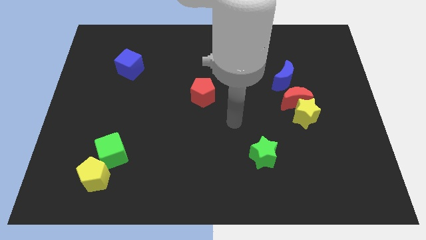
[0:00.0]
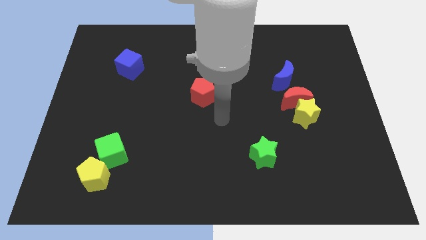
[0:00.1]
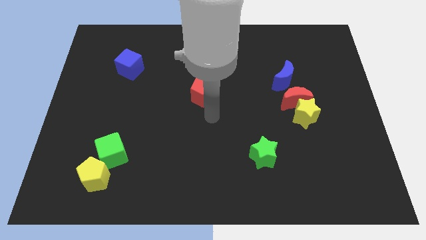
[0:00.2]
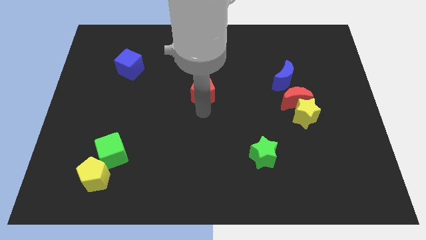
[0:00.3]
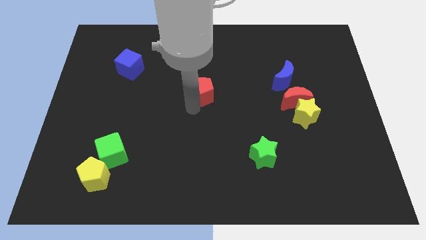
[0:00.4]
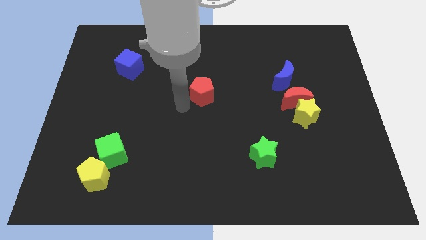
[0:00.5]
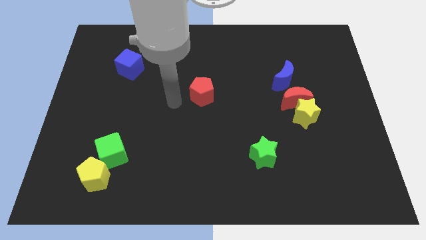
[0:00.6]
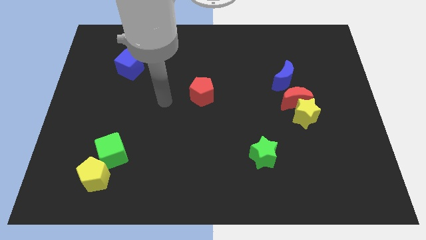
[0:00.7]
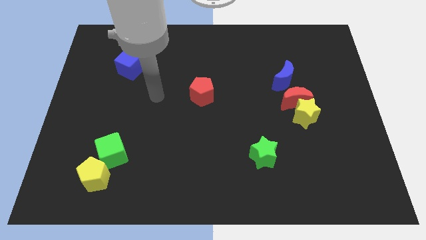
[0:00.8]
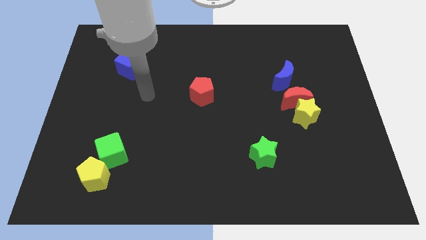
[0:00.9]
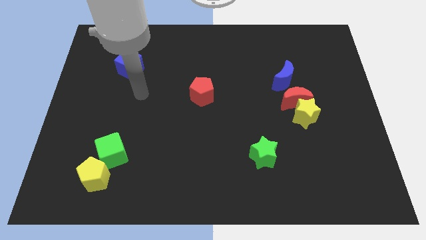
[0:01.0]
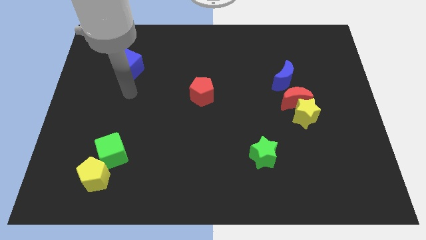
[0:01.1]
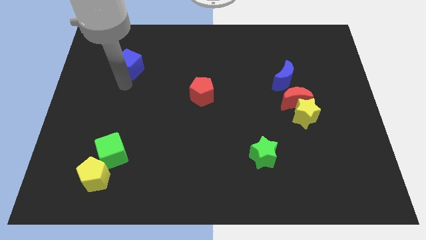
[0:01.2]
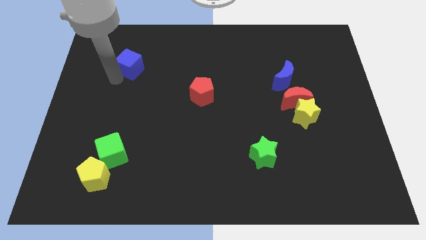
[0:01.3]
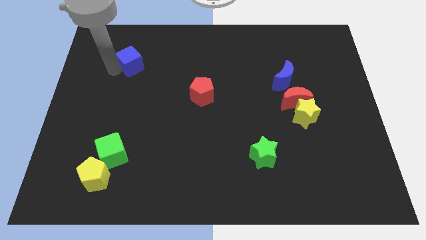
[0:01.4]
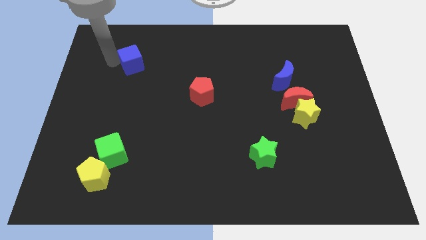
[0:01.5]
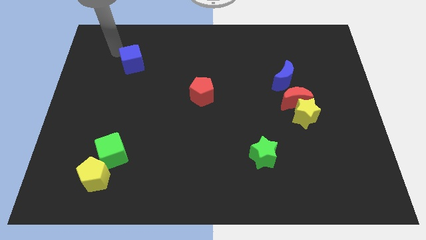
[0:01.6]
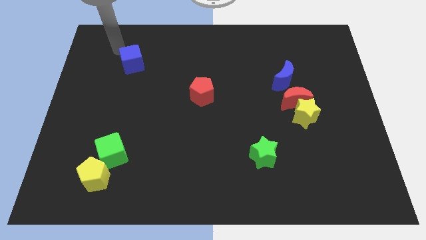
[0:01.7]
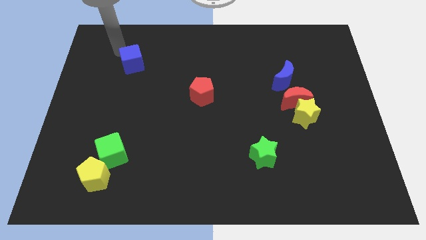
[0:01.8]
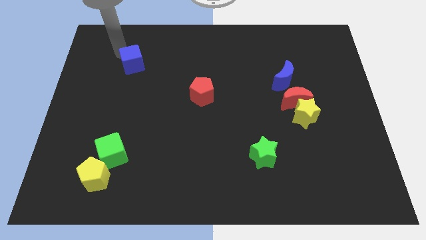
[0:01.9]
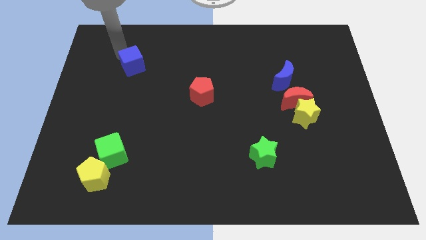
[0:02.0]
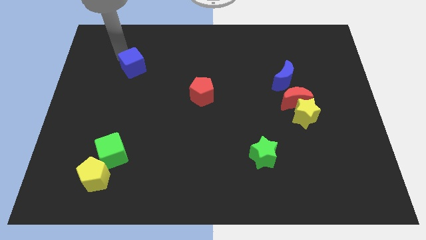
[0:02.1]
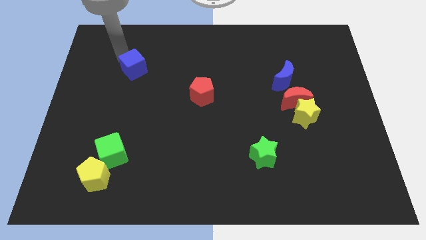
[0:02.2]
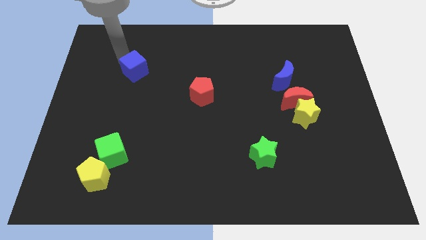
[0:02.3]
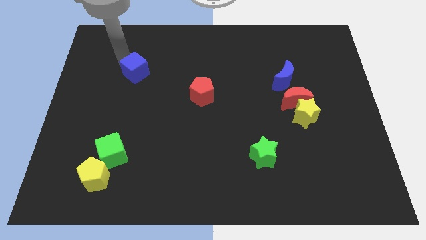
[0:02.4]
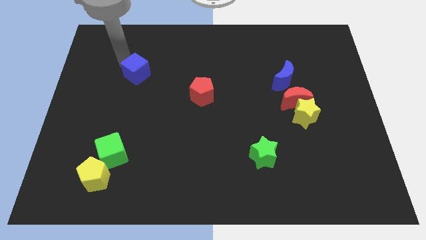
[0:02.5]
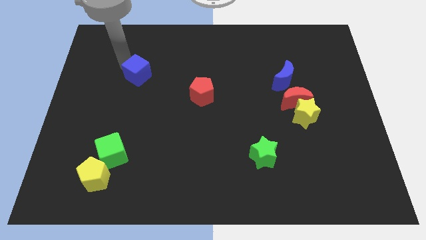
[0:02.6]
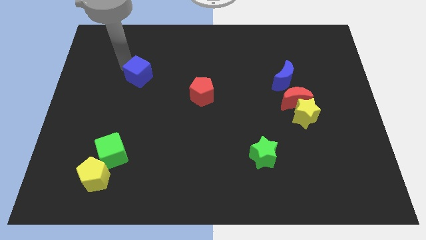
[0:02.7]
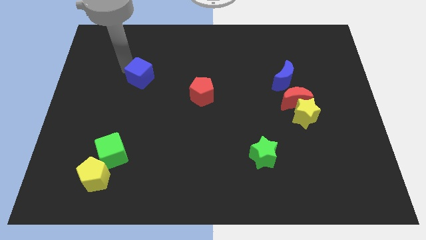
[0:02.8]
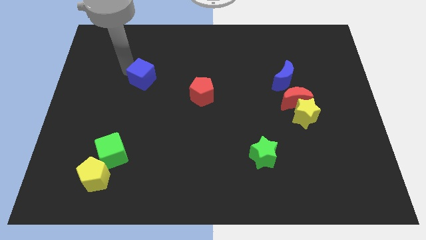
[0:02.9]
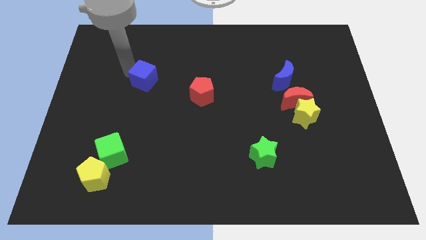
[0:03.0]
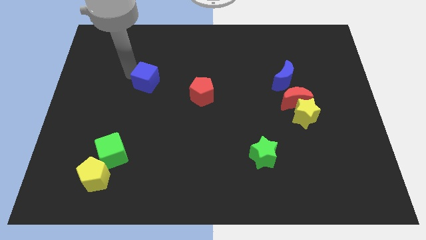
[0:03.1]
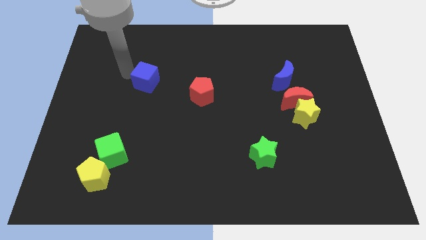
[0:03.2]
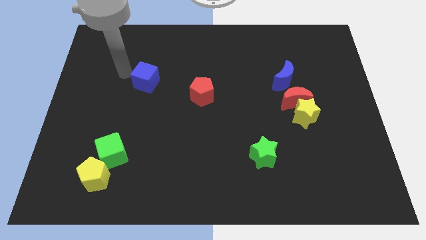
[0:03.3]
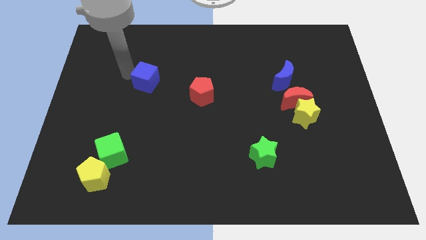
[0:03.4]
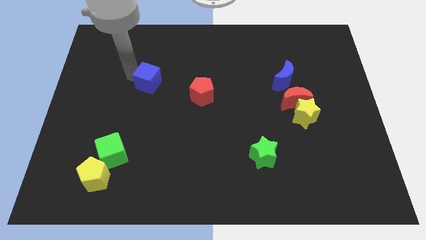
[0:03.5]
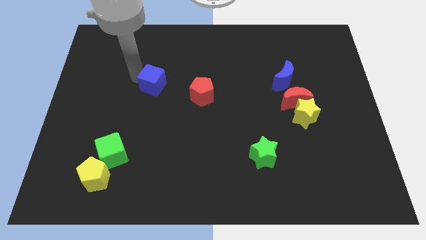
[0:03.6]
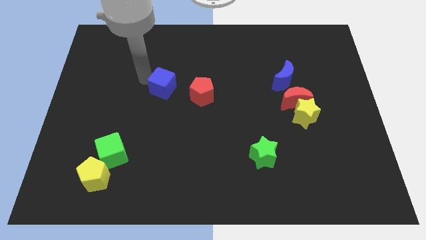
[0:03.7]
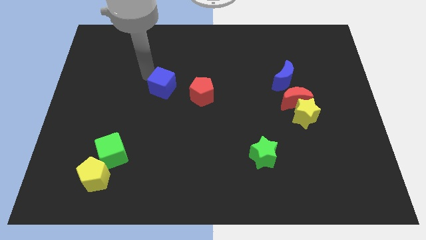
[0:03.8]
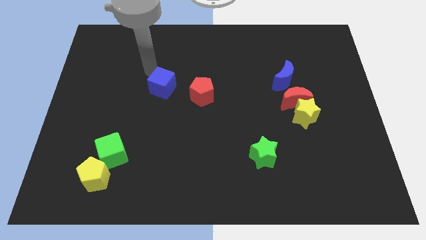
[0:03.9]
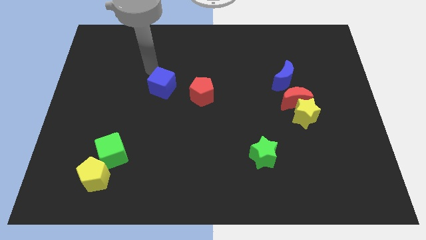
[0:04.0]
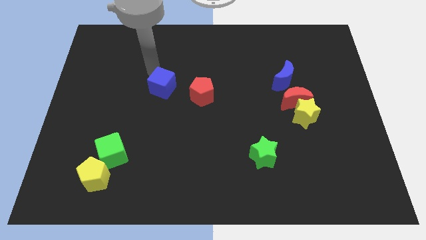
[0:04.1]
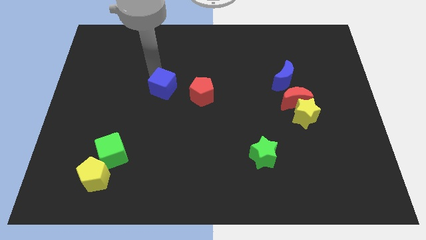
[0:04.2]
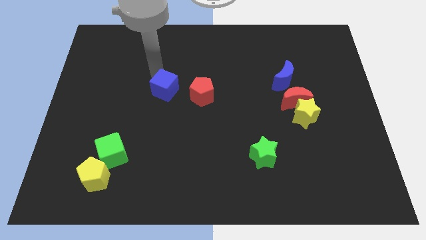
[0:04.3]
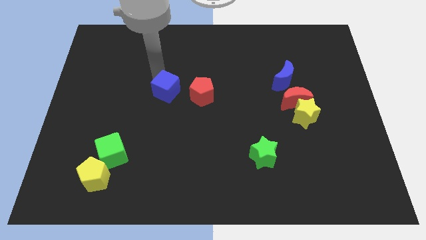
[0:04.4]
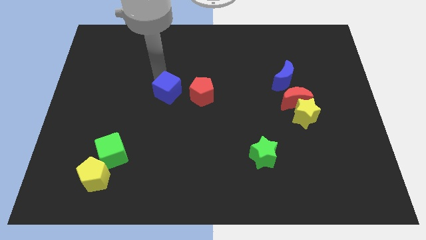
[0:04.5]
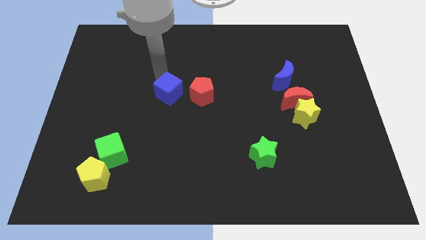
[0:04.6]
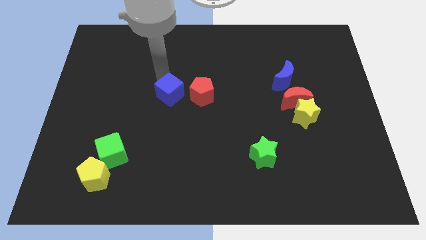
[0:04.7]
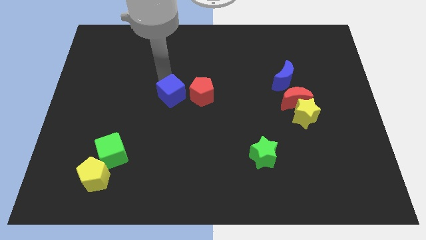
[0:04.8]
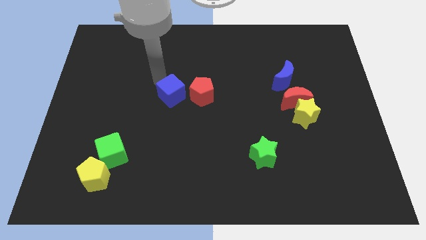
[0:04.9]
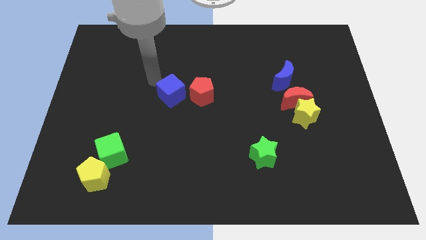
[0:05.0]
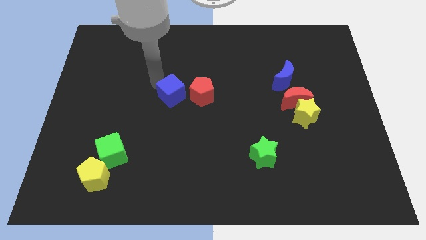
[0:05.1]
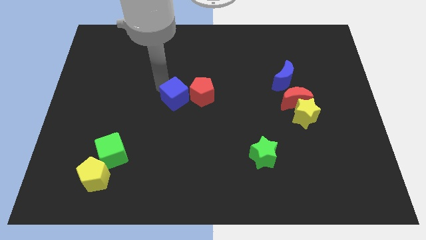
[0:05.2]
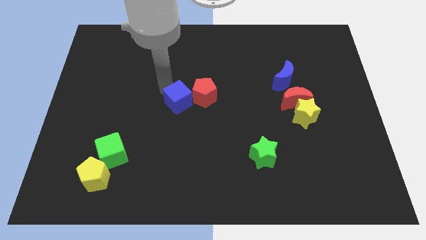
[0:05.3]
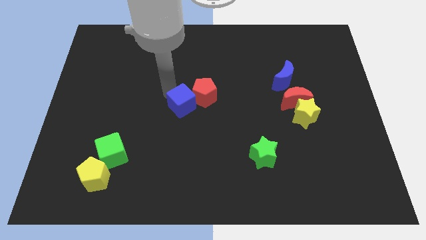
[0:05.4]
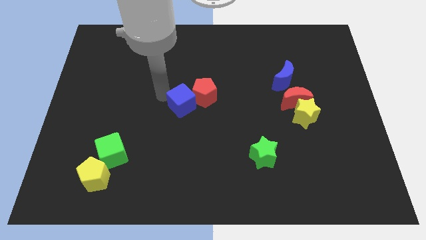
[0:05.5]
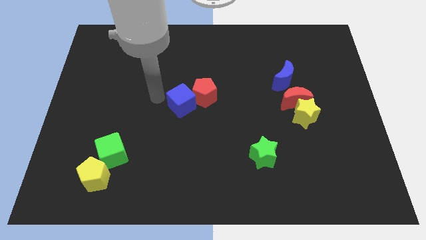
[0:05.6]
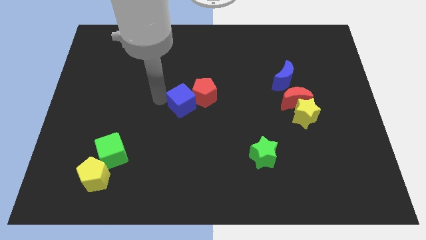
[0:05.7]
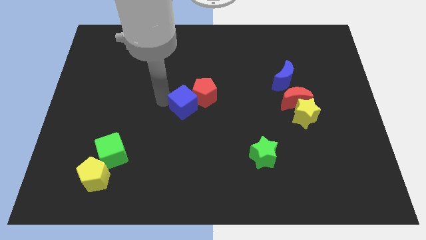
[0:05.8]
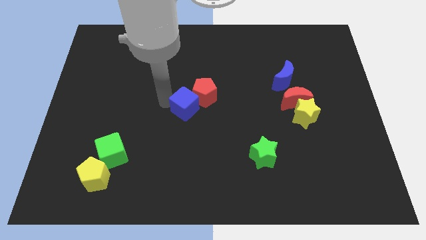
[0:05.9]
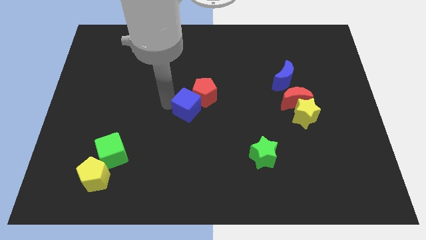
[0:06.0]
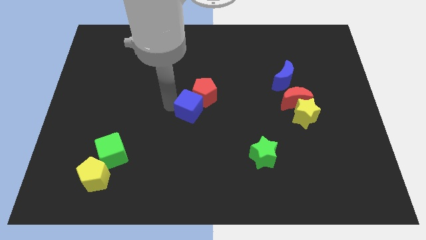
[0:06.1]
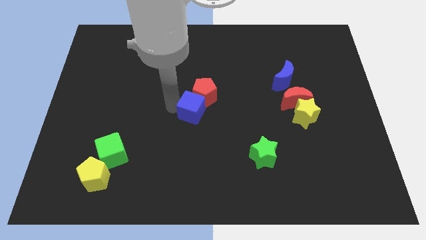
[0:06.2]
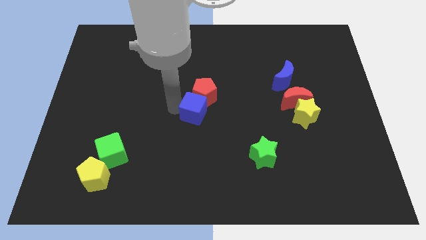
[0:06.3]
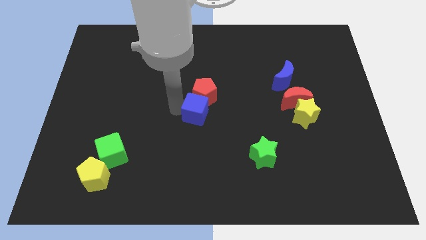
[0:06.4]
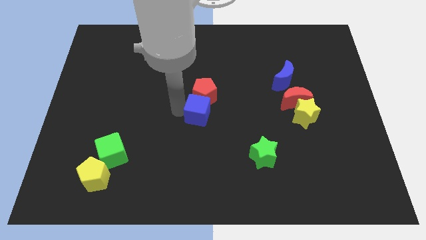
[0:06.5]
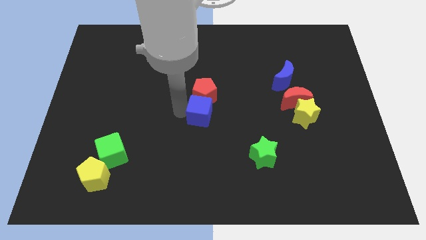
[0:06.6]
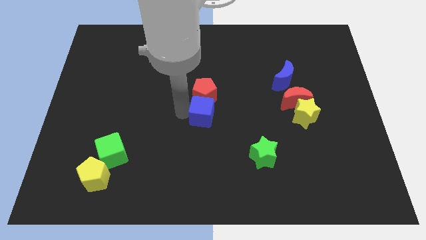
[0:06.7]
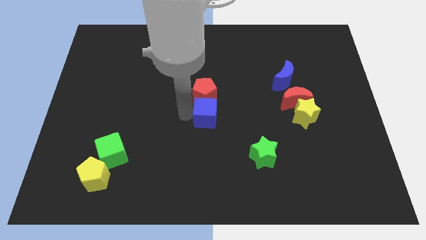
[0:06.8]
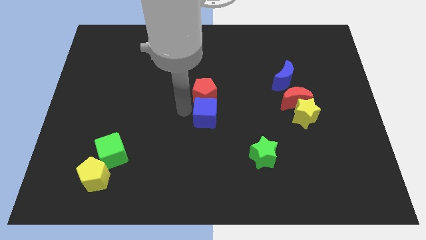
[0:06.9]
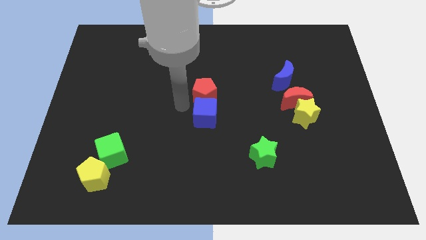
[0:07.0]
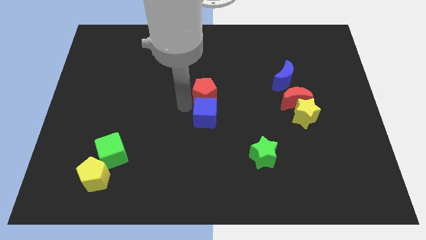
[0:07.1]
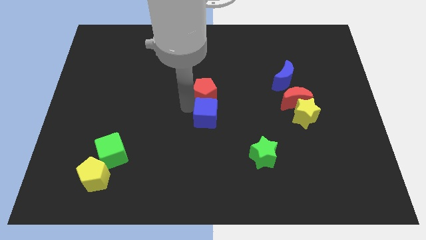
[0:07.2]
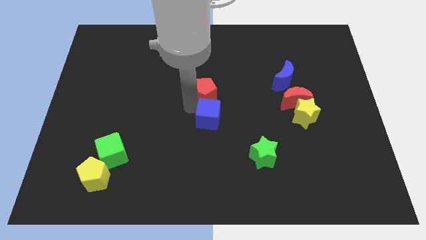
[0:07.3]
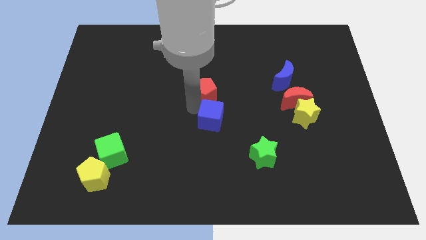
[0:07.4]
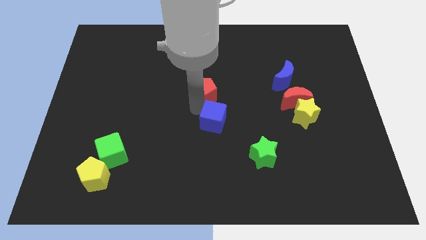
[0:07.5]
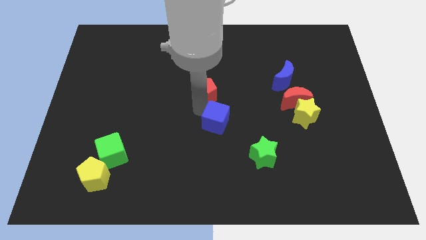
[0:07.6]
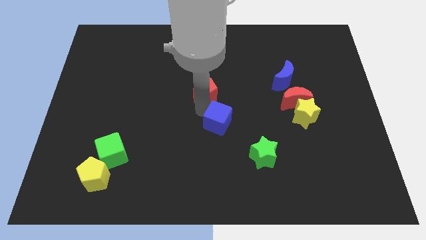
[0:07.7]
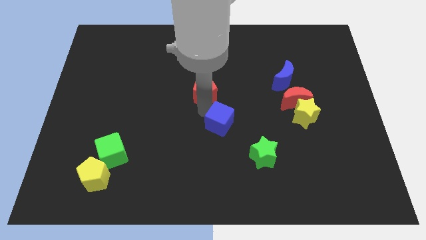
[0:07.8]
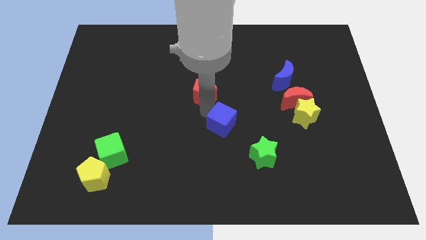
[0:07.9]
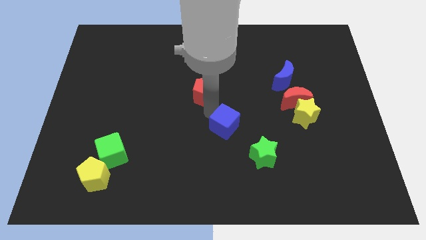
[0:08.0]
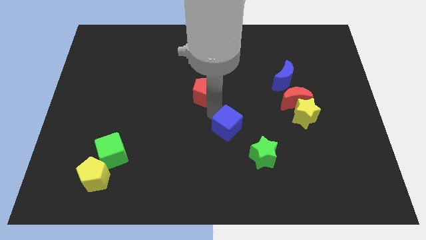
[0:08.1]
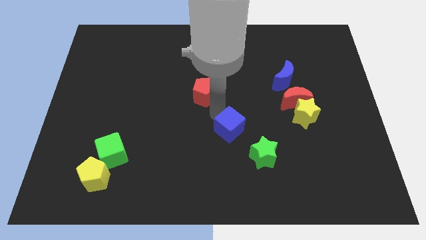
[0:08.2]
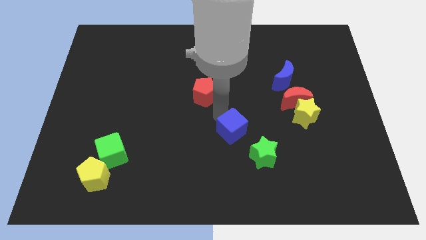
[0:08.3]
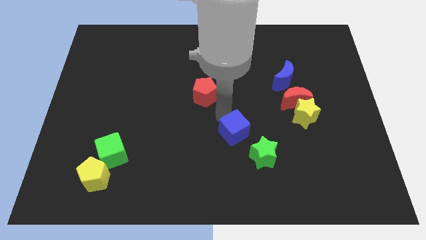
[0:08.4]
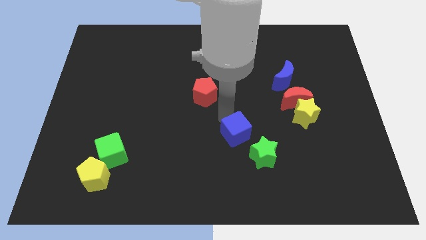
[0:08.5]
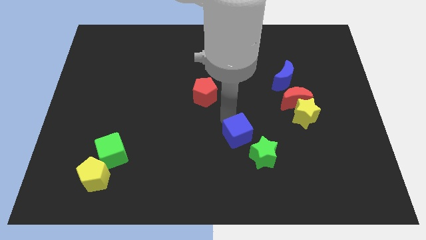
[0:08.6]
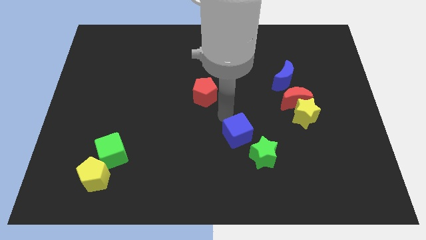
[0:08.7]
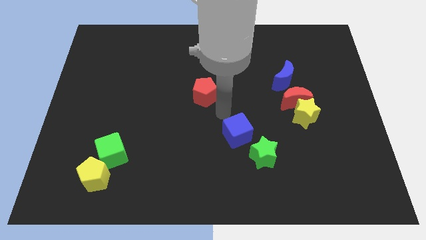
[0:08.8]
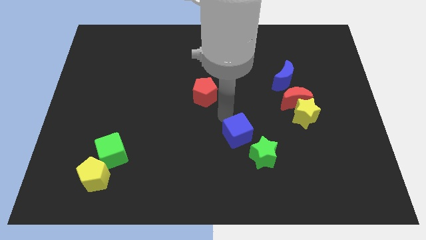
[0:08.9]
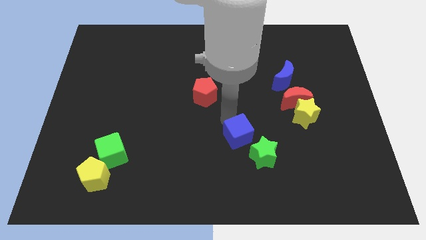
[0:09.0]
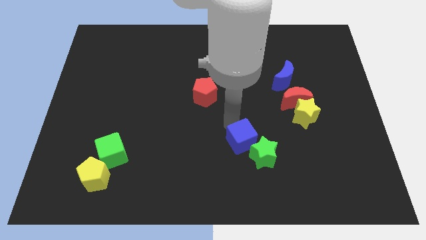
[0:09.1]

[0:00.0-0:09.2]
push the blue cube towards the green star
